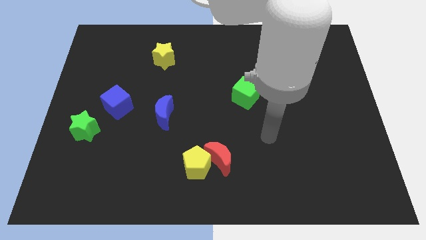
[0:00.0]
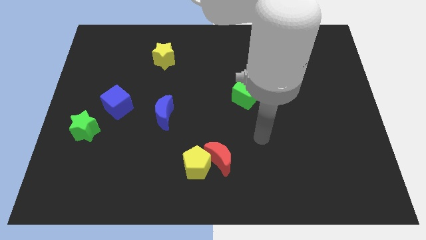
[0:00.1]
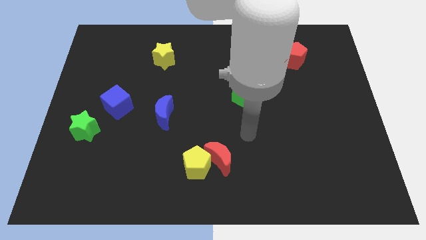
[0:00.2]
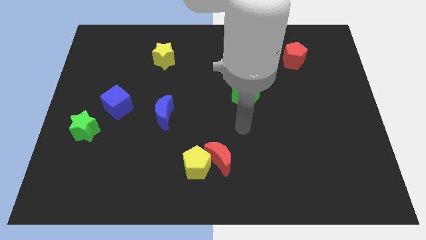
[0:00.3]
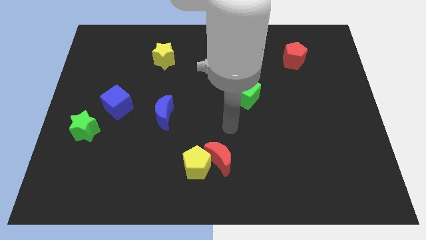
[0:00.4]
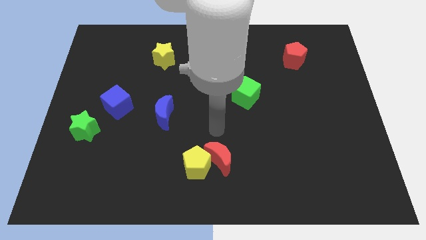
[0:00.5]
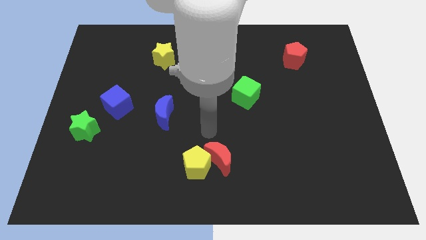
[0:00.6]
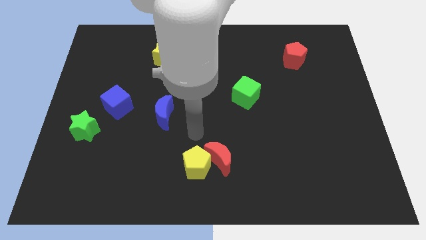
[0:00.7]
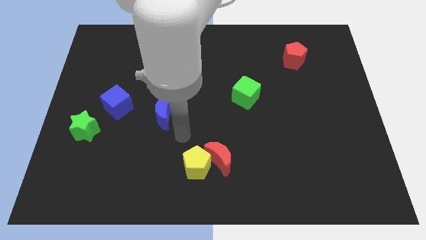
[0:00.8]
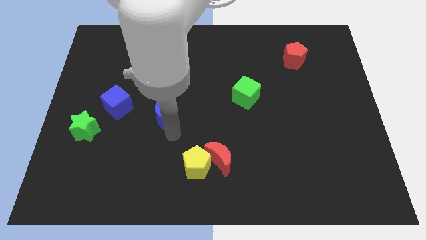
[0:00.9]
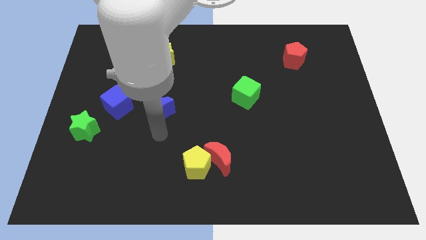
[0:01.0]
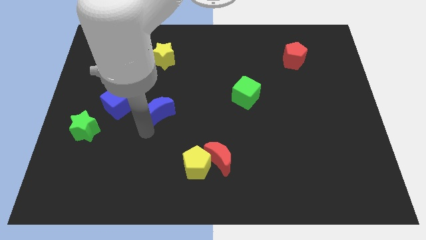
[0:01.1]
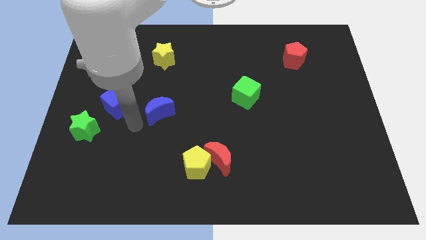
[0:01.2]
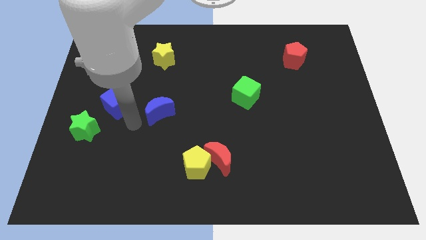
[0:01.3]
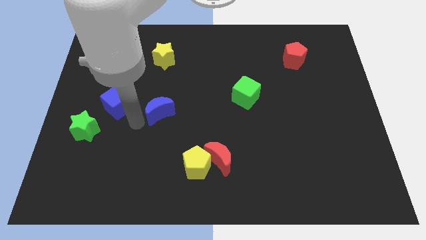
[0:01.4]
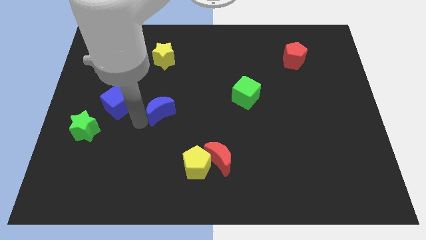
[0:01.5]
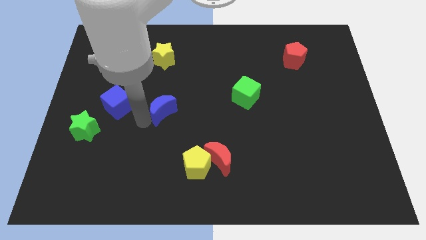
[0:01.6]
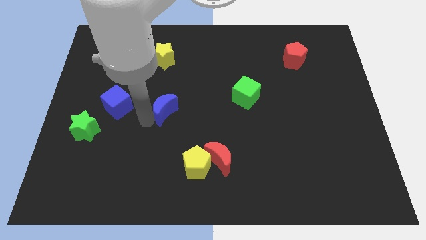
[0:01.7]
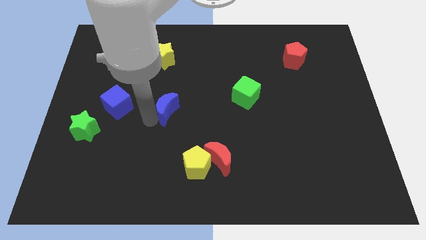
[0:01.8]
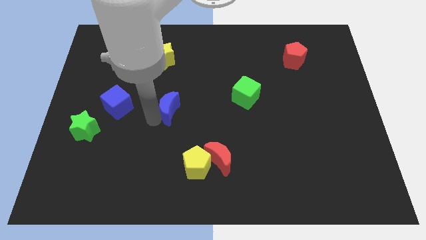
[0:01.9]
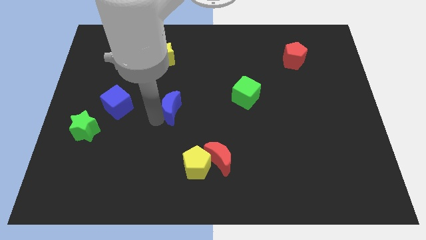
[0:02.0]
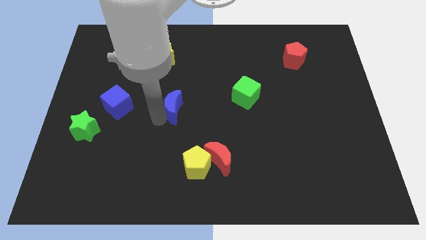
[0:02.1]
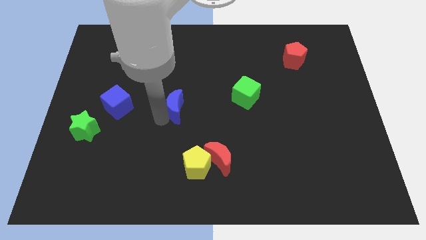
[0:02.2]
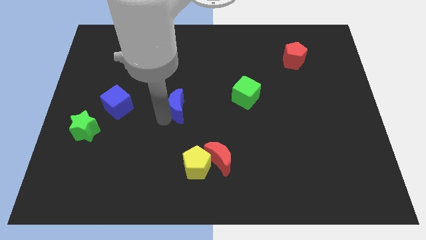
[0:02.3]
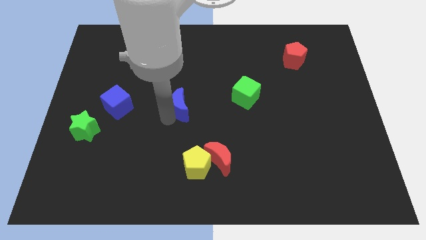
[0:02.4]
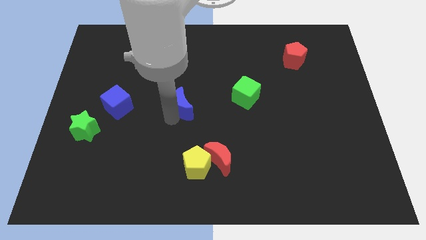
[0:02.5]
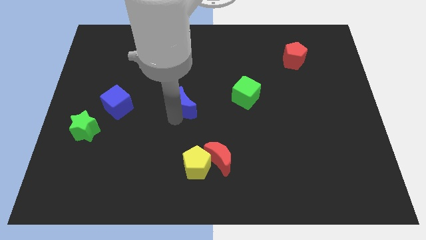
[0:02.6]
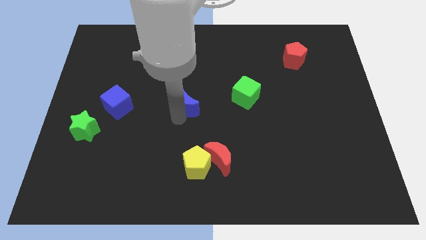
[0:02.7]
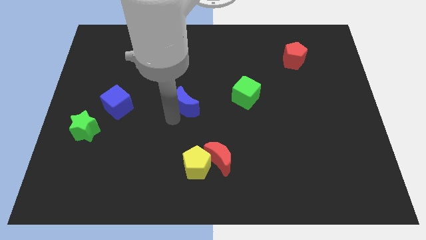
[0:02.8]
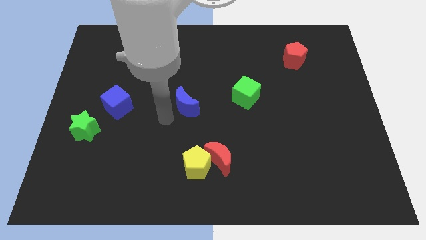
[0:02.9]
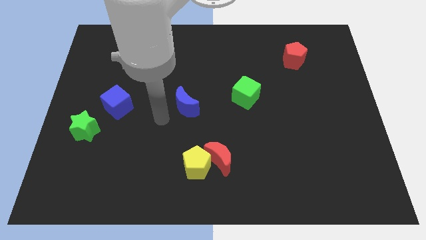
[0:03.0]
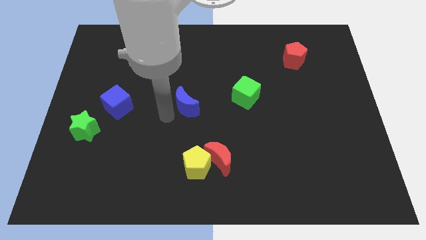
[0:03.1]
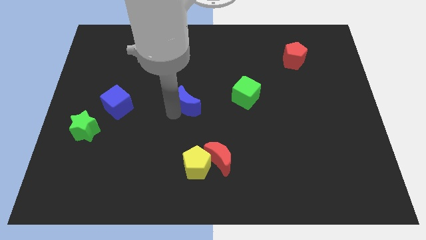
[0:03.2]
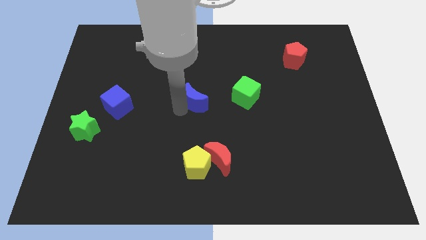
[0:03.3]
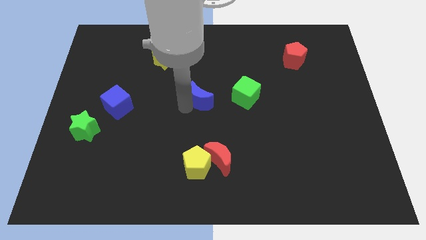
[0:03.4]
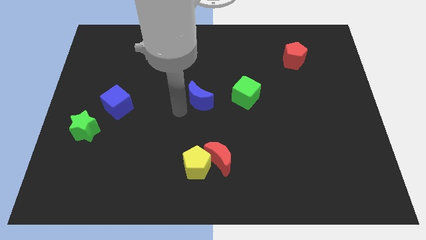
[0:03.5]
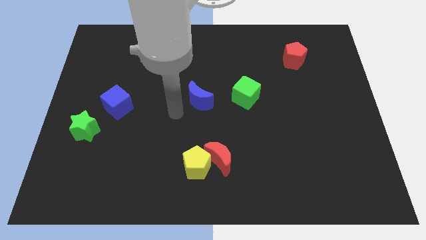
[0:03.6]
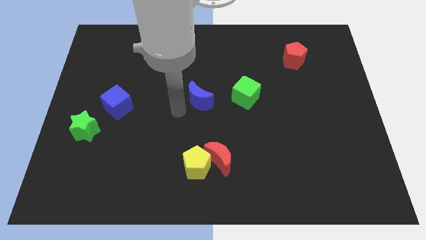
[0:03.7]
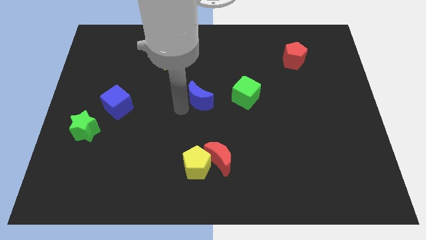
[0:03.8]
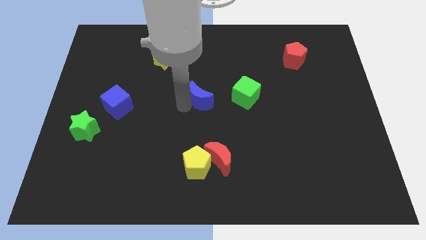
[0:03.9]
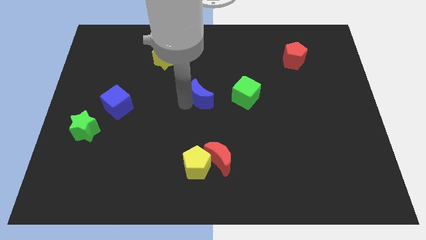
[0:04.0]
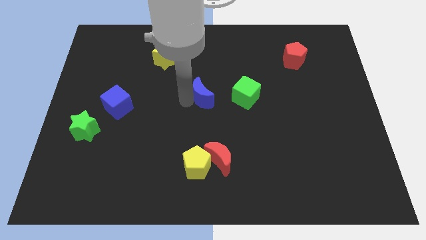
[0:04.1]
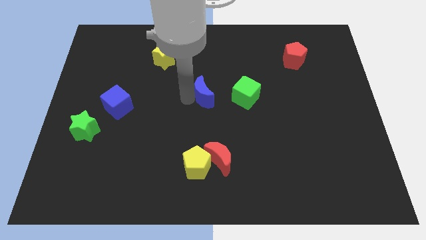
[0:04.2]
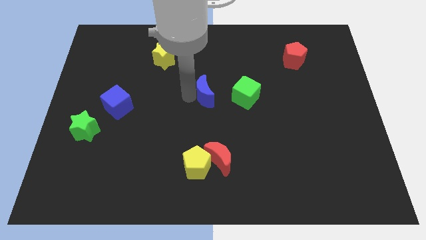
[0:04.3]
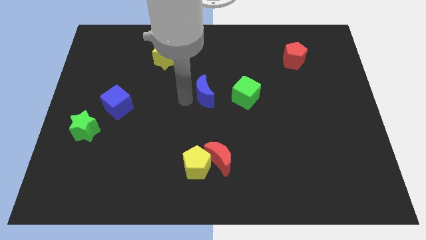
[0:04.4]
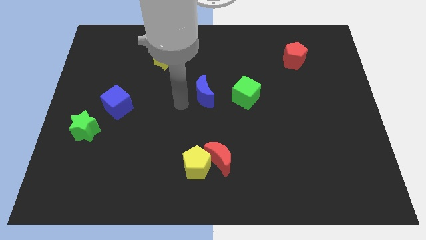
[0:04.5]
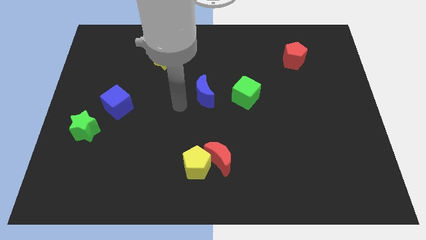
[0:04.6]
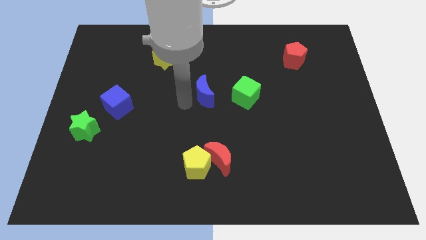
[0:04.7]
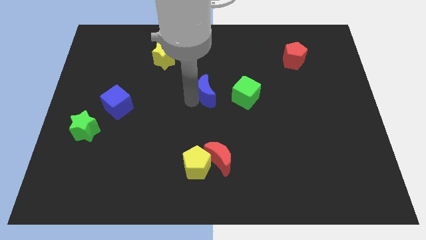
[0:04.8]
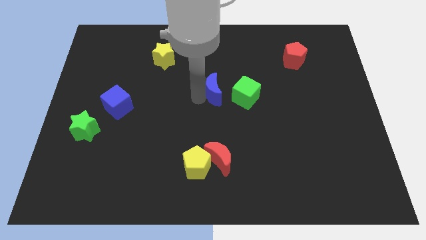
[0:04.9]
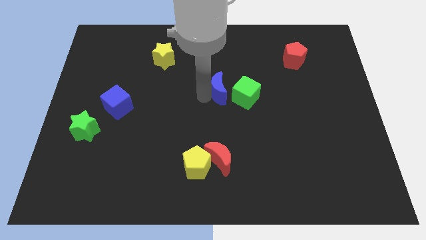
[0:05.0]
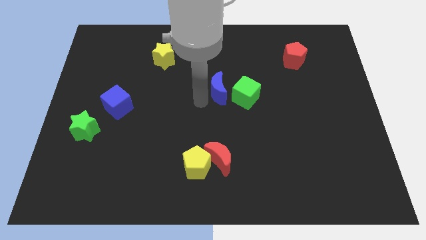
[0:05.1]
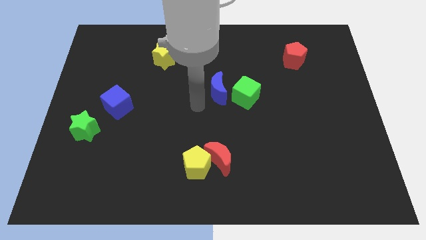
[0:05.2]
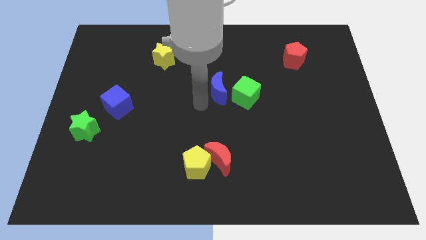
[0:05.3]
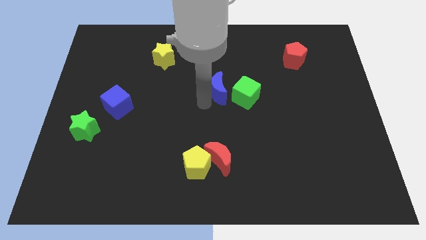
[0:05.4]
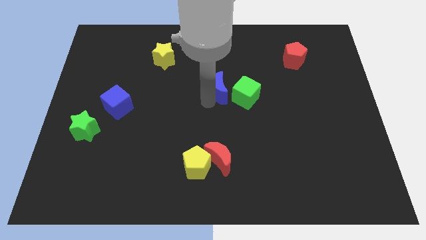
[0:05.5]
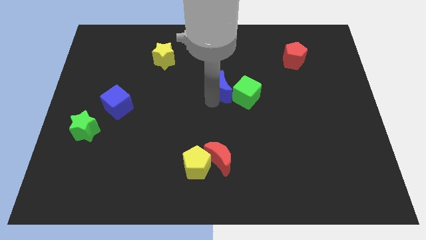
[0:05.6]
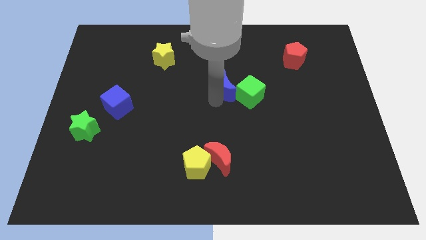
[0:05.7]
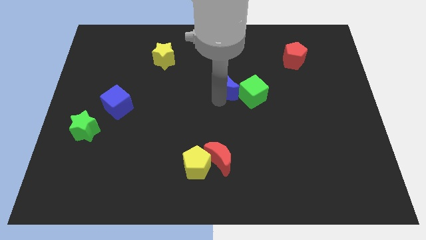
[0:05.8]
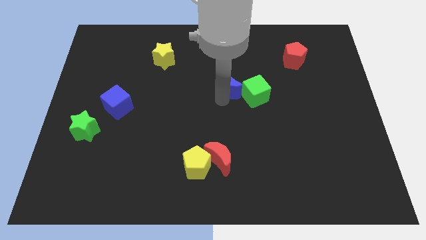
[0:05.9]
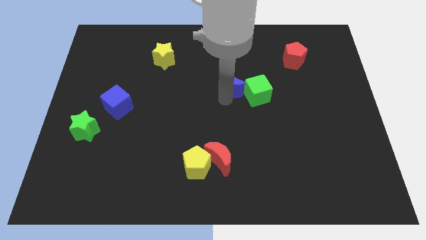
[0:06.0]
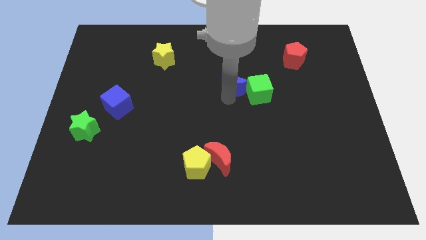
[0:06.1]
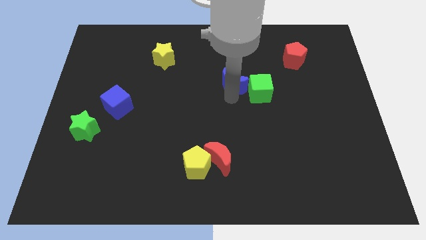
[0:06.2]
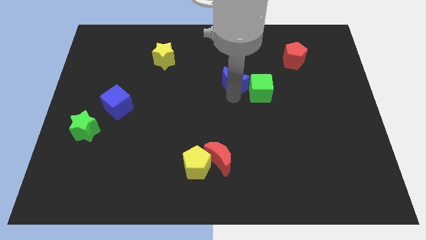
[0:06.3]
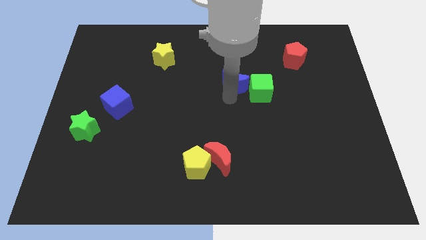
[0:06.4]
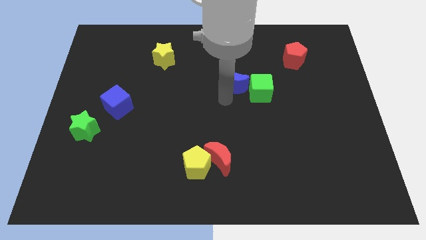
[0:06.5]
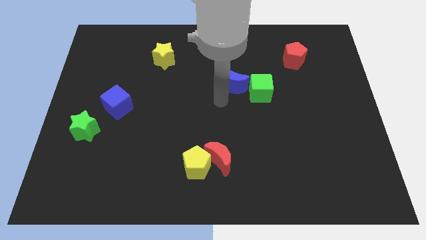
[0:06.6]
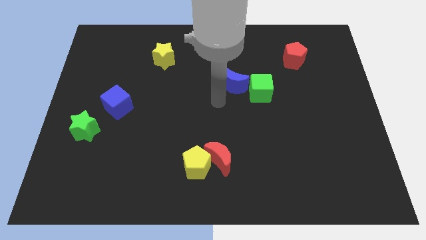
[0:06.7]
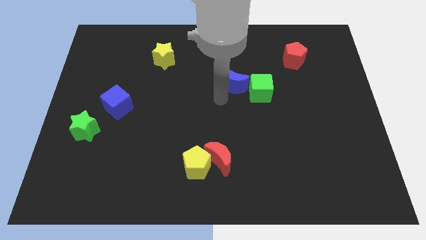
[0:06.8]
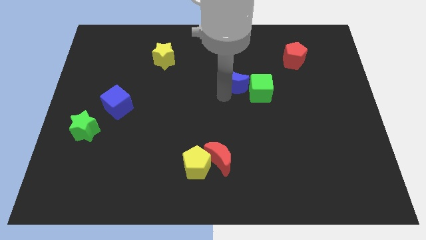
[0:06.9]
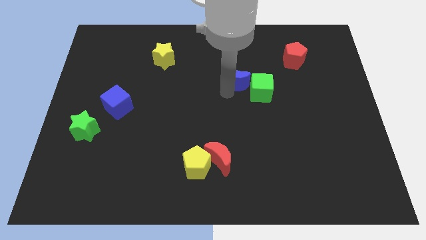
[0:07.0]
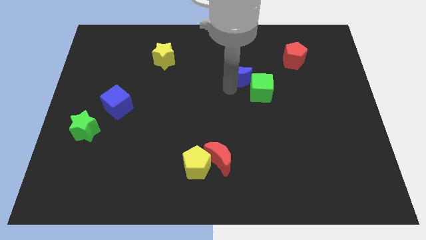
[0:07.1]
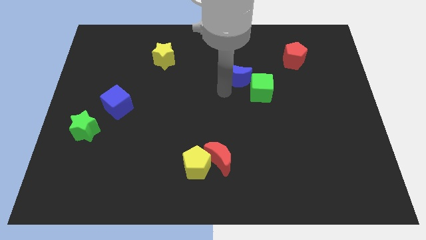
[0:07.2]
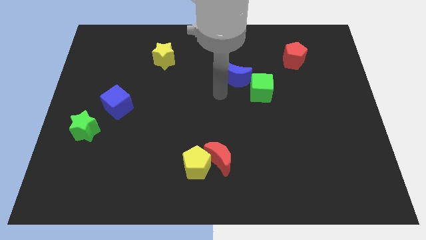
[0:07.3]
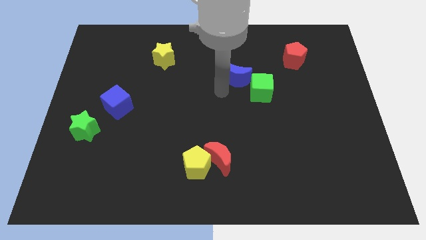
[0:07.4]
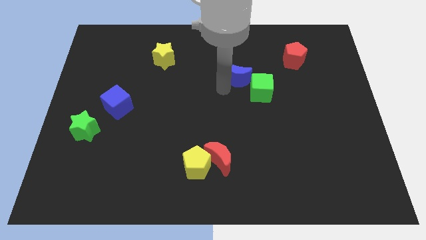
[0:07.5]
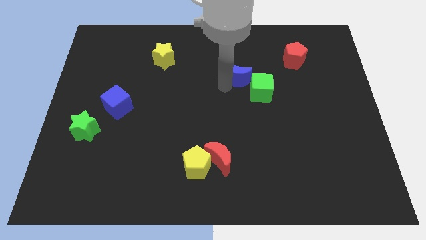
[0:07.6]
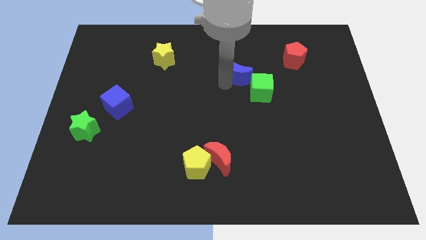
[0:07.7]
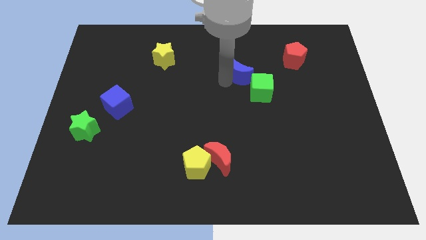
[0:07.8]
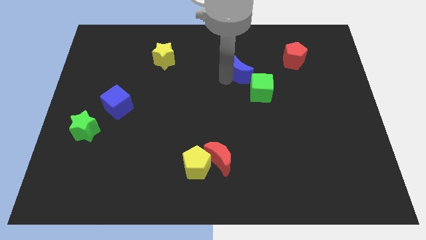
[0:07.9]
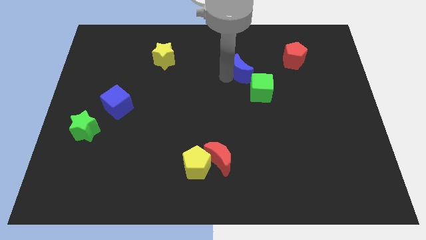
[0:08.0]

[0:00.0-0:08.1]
put the blue moon above the green cube
